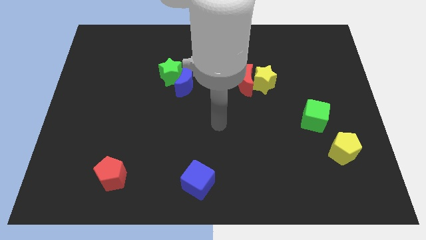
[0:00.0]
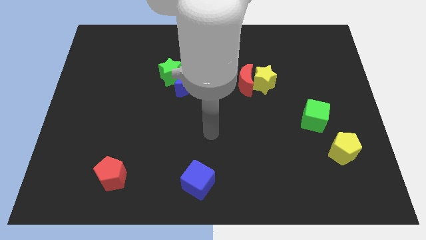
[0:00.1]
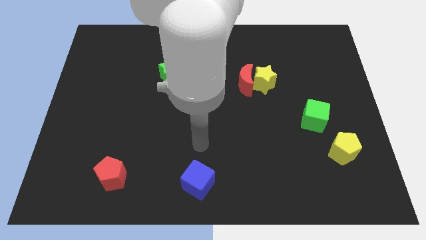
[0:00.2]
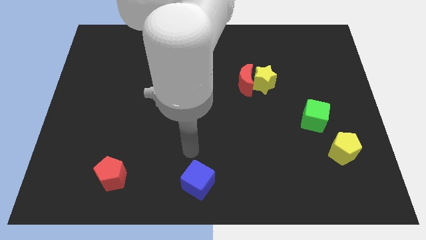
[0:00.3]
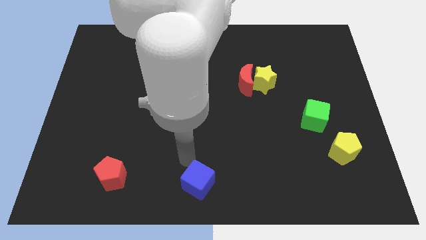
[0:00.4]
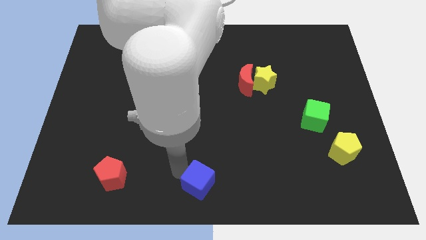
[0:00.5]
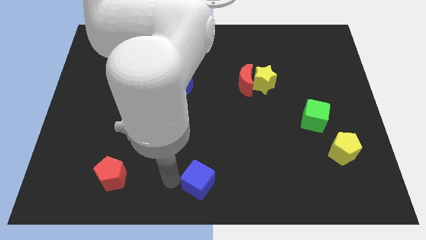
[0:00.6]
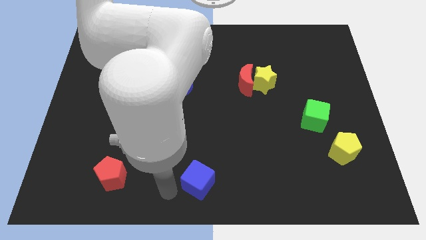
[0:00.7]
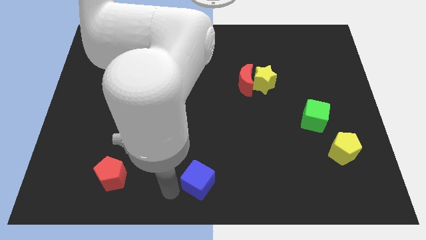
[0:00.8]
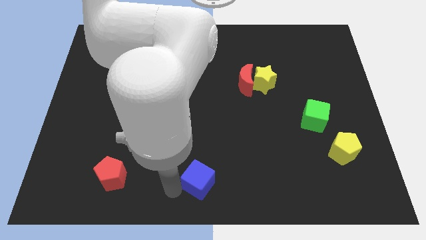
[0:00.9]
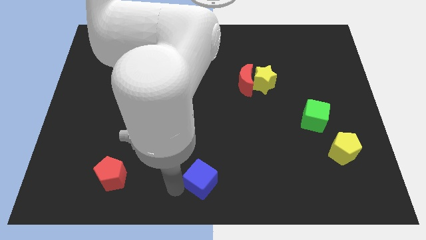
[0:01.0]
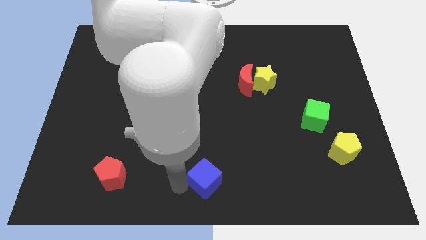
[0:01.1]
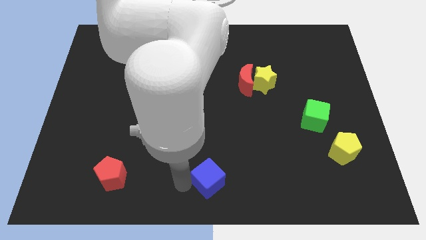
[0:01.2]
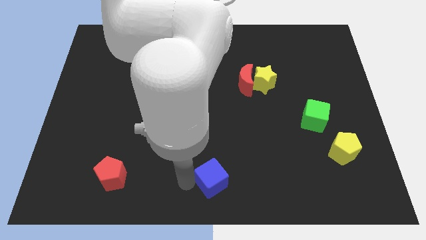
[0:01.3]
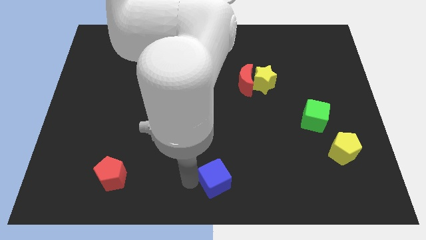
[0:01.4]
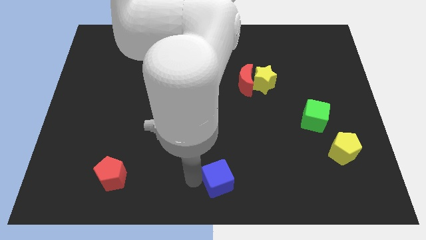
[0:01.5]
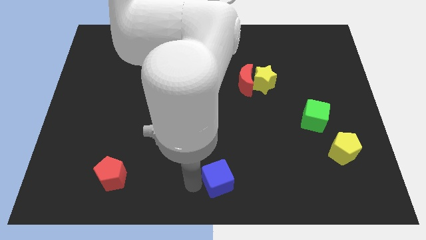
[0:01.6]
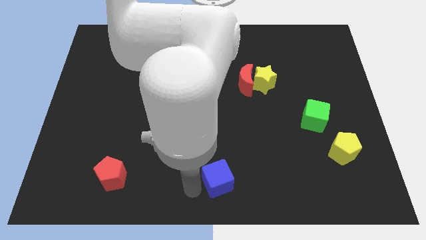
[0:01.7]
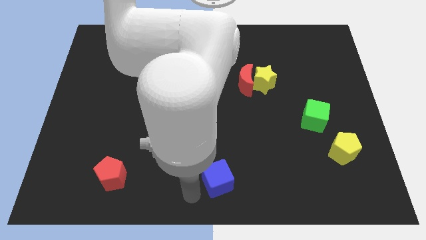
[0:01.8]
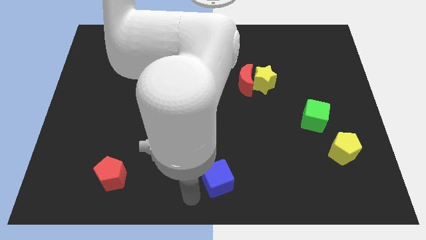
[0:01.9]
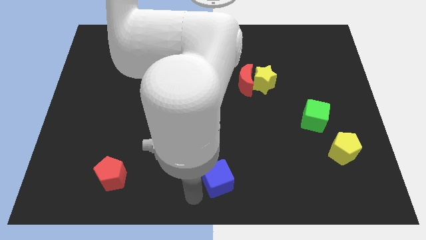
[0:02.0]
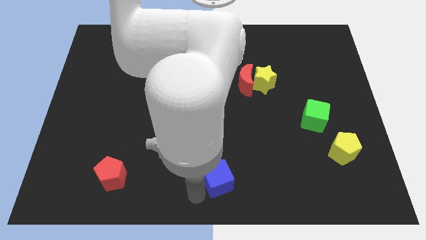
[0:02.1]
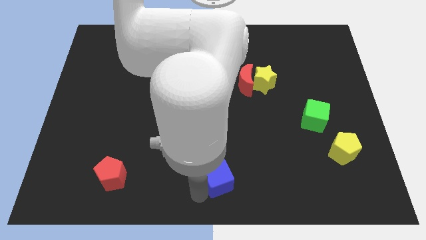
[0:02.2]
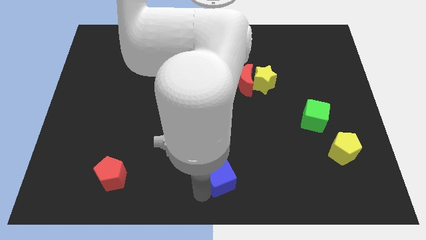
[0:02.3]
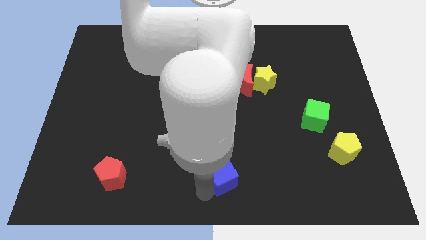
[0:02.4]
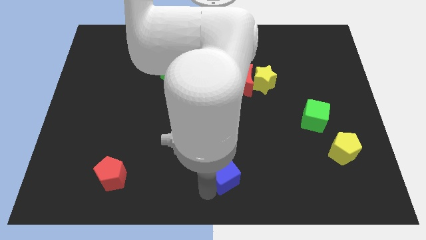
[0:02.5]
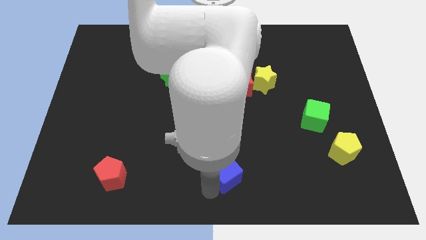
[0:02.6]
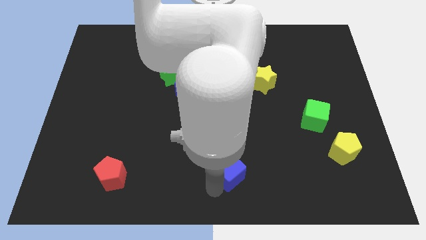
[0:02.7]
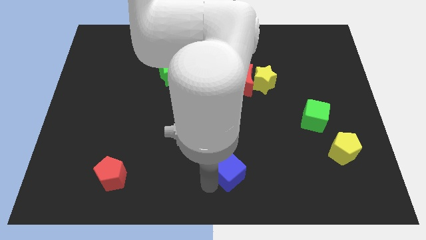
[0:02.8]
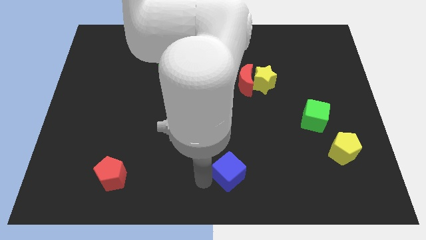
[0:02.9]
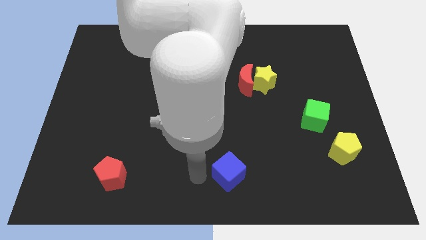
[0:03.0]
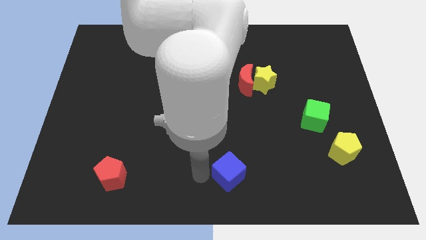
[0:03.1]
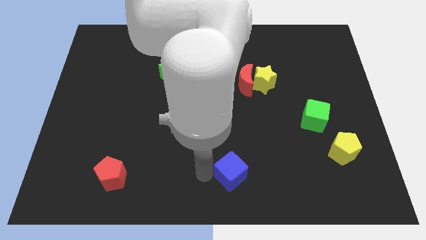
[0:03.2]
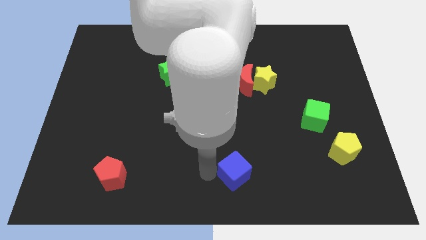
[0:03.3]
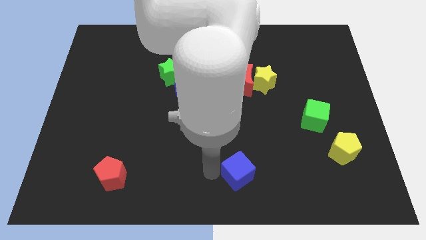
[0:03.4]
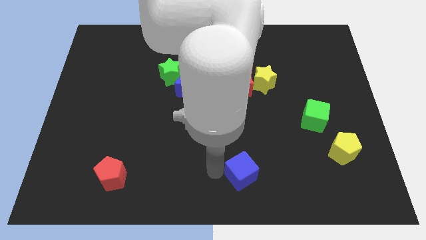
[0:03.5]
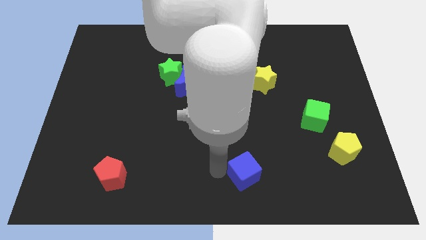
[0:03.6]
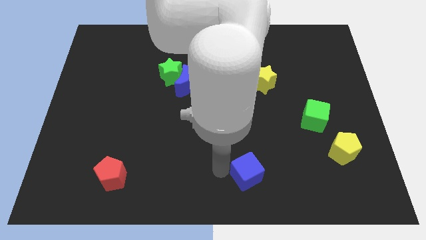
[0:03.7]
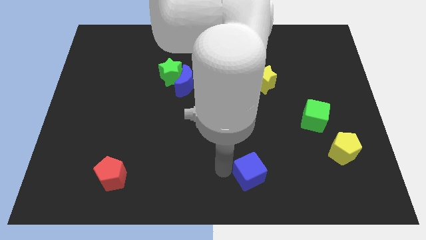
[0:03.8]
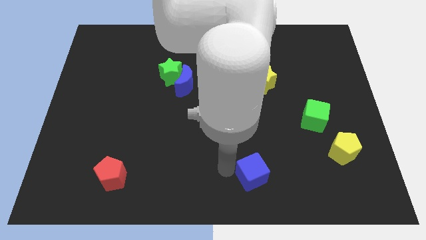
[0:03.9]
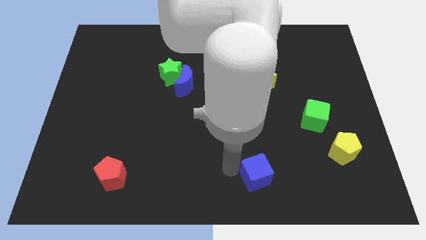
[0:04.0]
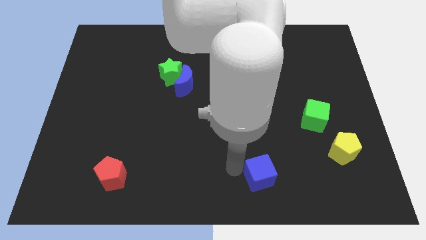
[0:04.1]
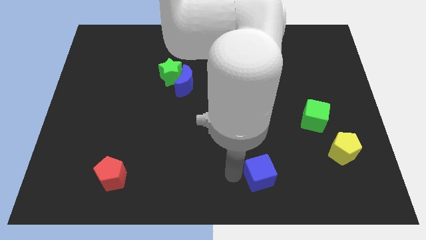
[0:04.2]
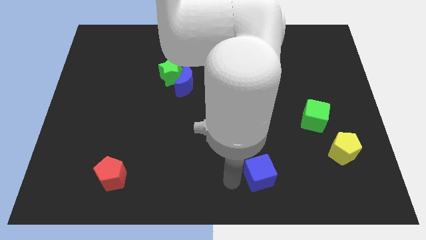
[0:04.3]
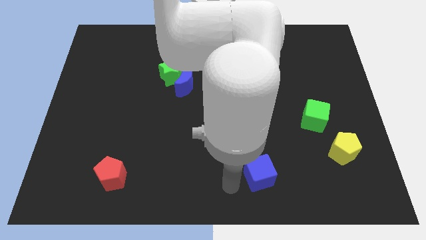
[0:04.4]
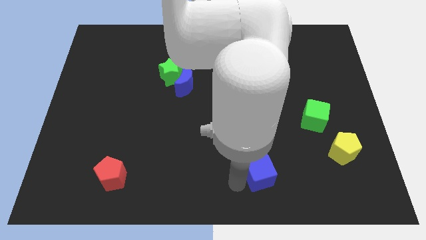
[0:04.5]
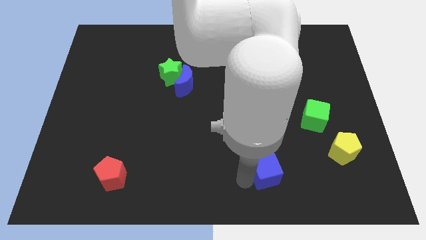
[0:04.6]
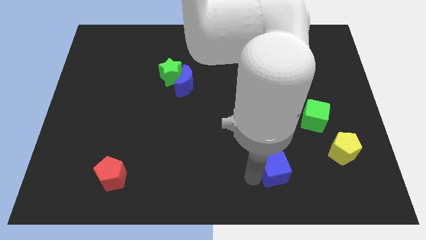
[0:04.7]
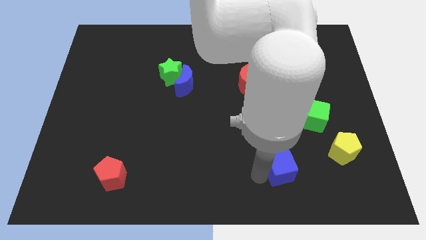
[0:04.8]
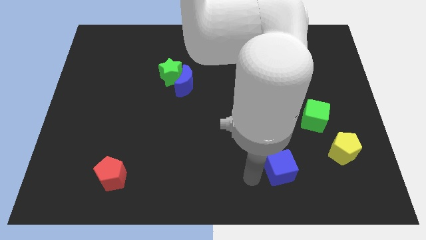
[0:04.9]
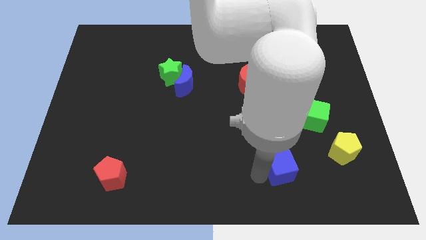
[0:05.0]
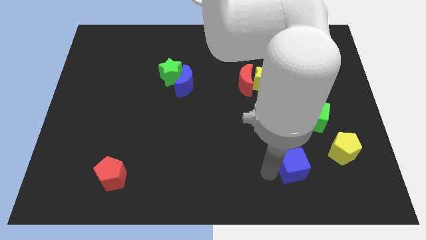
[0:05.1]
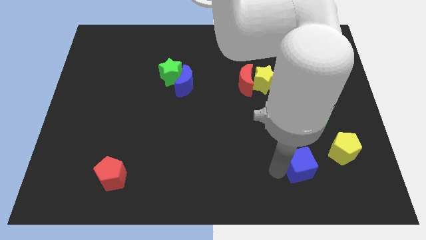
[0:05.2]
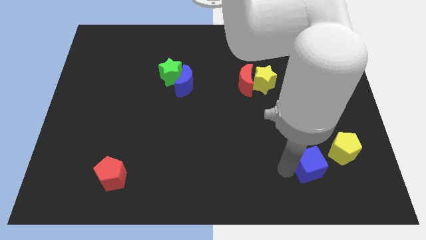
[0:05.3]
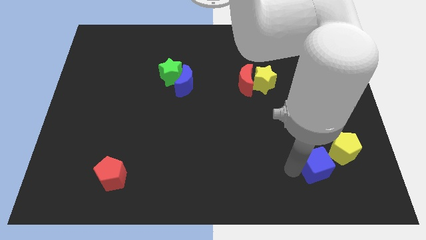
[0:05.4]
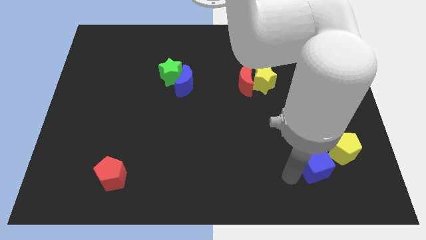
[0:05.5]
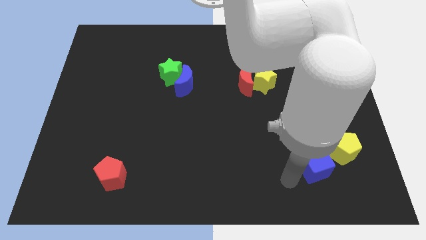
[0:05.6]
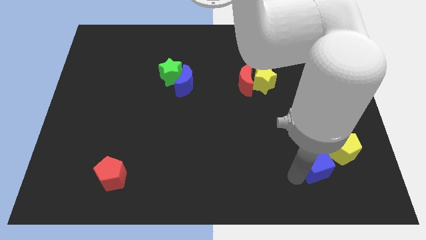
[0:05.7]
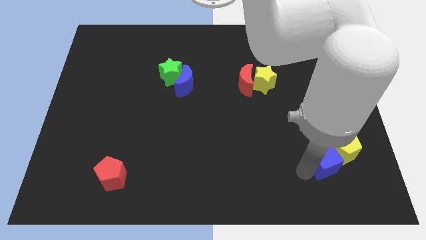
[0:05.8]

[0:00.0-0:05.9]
put the blue cube next to the yellow pentagon

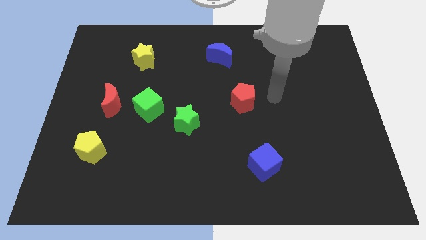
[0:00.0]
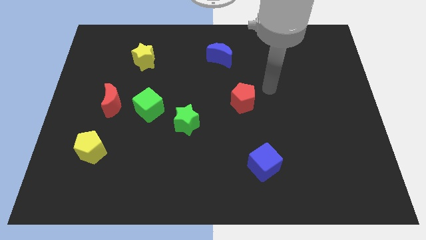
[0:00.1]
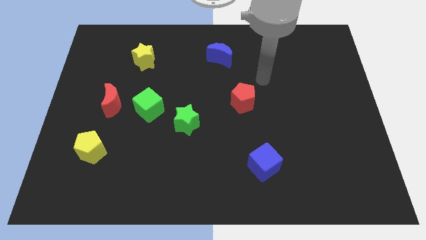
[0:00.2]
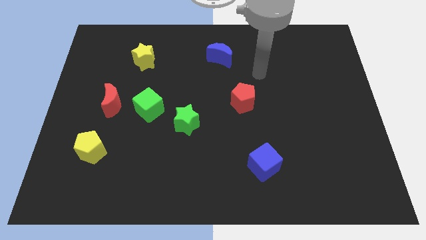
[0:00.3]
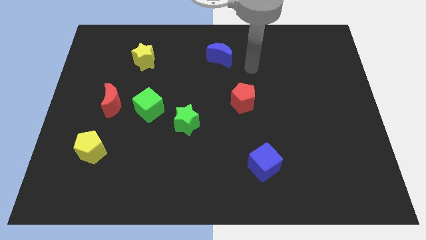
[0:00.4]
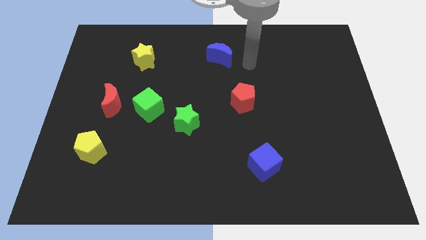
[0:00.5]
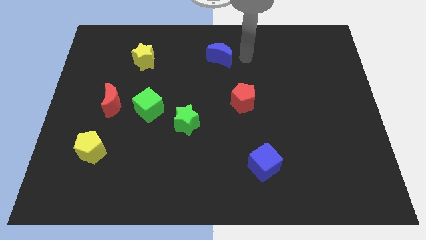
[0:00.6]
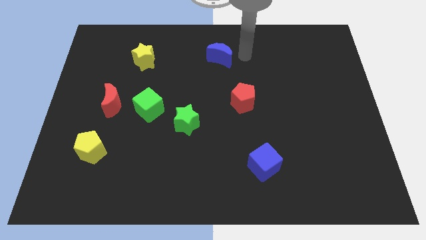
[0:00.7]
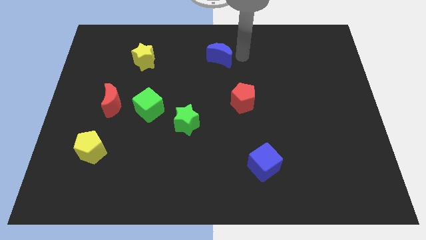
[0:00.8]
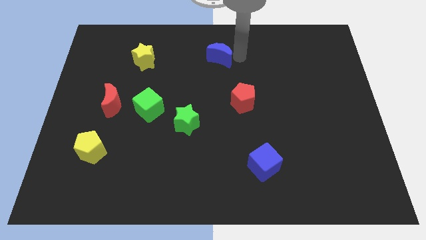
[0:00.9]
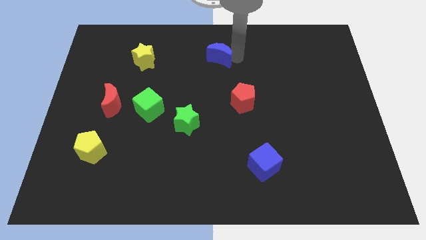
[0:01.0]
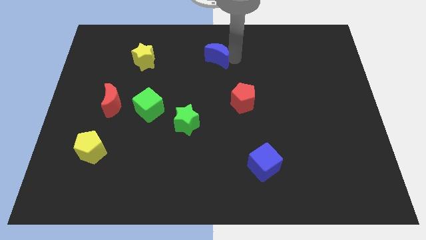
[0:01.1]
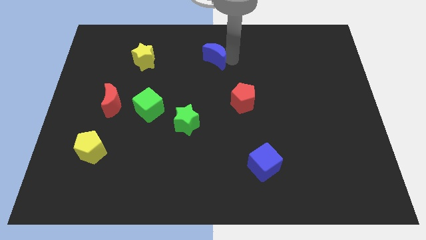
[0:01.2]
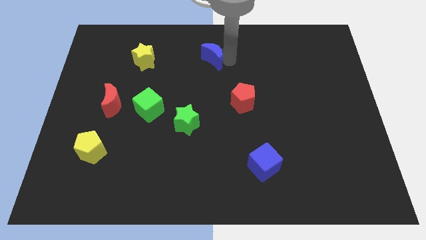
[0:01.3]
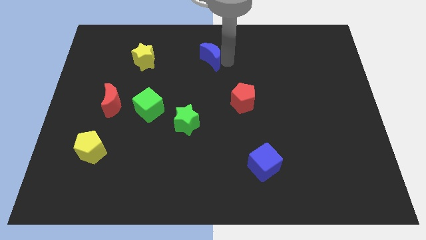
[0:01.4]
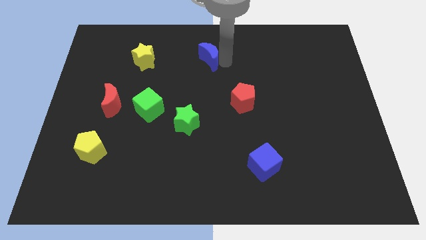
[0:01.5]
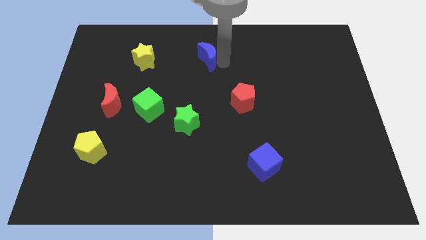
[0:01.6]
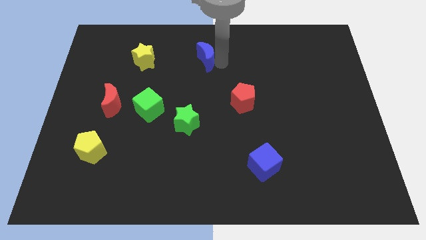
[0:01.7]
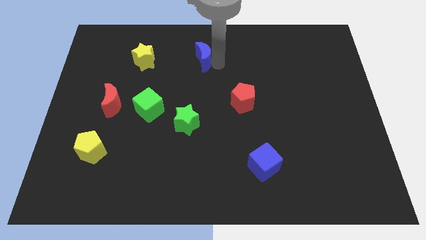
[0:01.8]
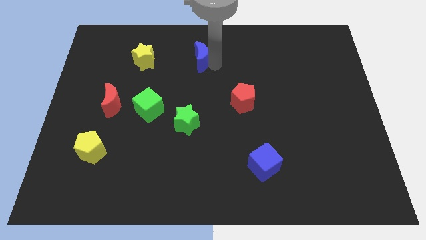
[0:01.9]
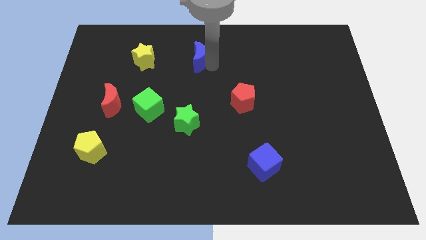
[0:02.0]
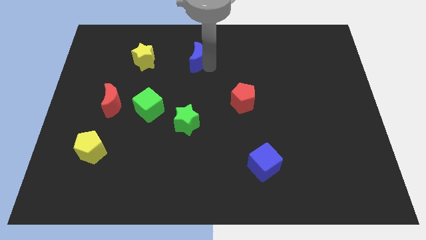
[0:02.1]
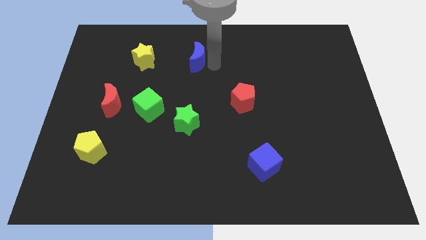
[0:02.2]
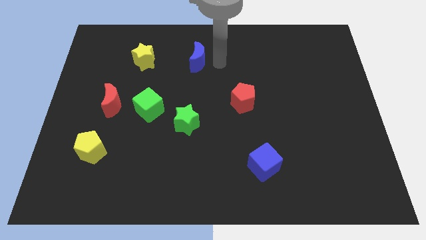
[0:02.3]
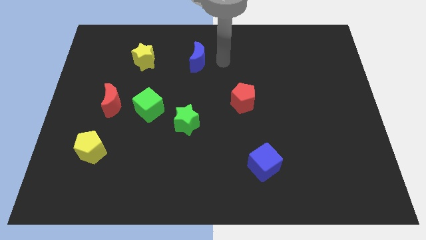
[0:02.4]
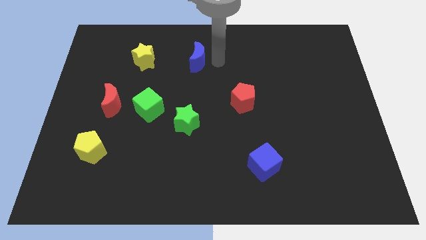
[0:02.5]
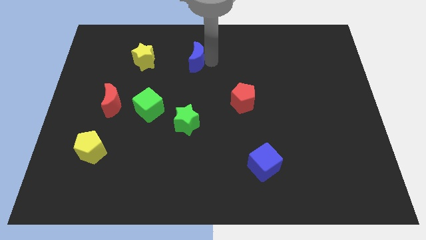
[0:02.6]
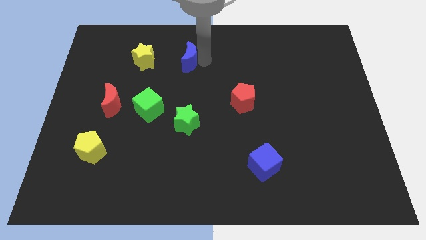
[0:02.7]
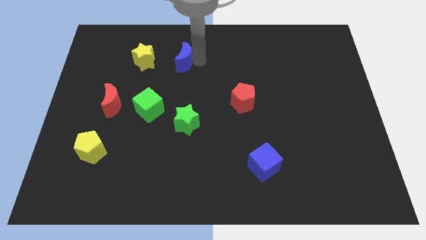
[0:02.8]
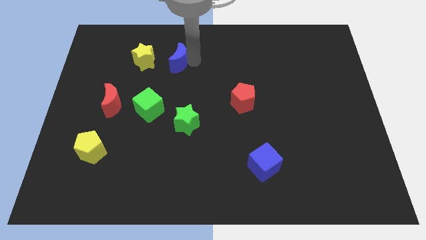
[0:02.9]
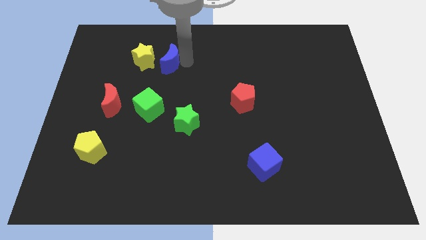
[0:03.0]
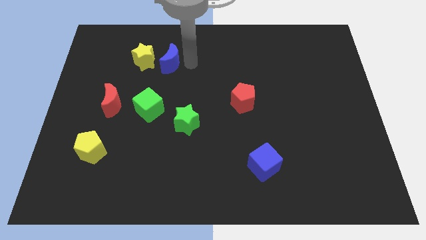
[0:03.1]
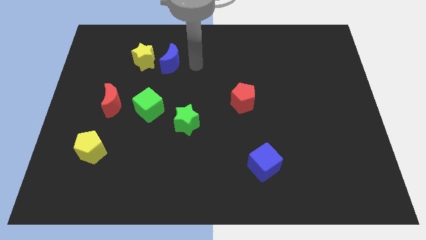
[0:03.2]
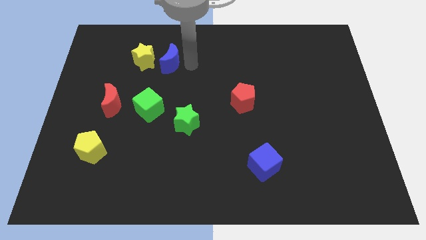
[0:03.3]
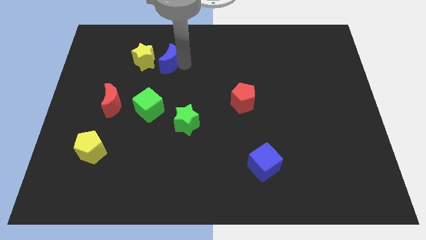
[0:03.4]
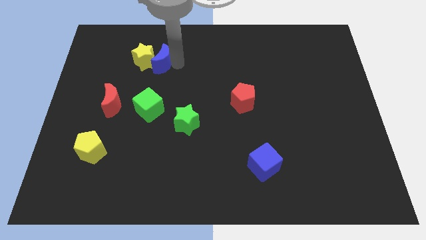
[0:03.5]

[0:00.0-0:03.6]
put the blue moon next to the yellow star
